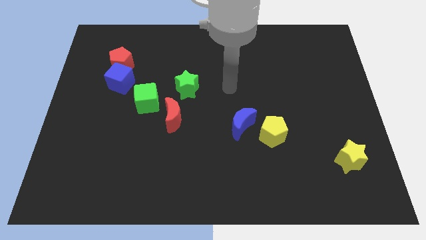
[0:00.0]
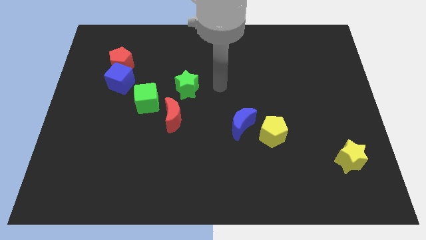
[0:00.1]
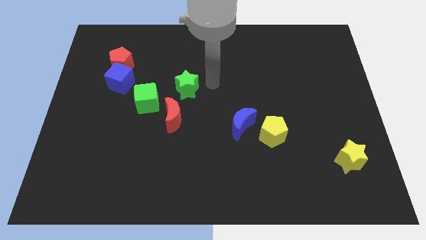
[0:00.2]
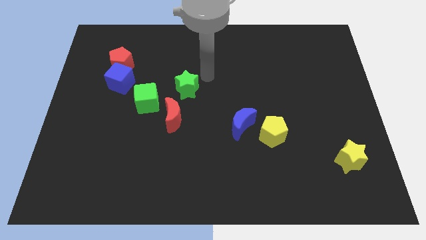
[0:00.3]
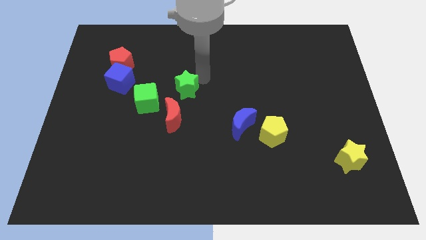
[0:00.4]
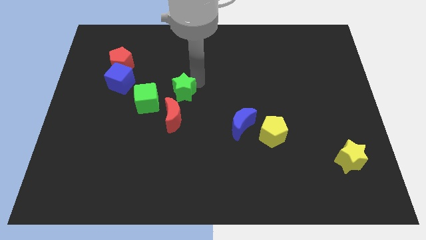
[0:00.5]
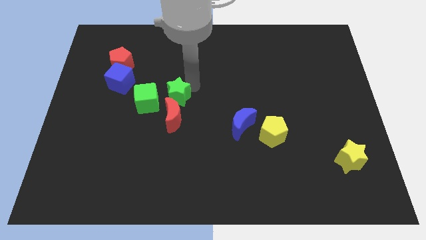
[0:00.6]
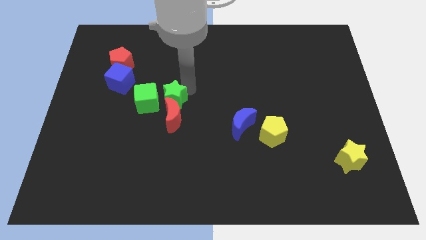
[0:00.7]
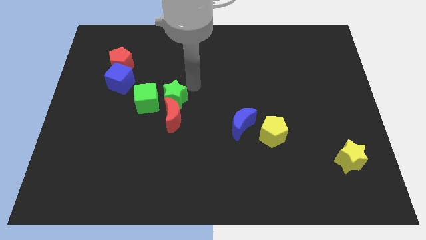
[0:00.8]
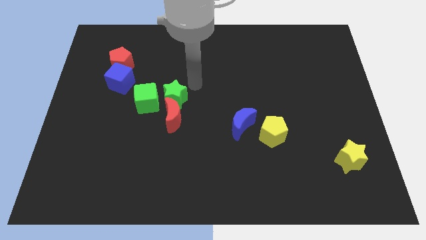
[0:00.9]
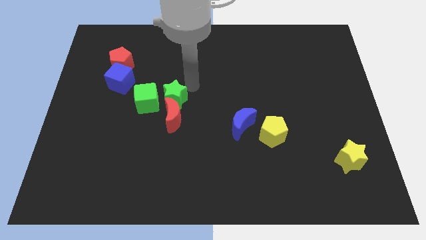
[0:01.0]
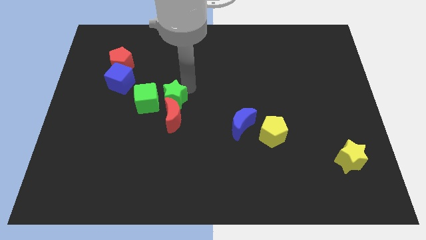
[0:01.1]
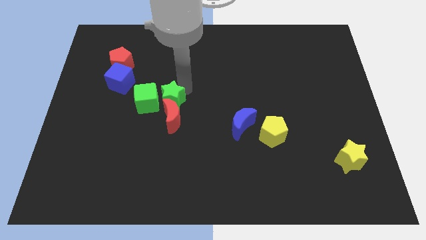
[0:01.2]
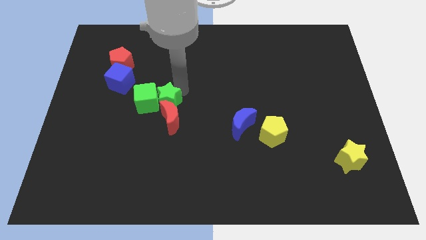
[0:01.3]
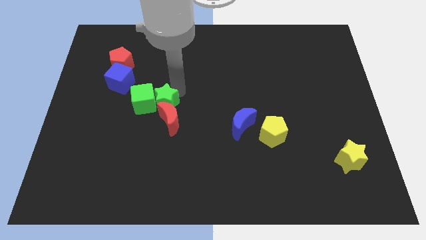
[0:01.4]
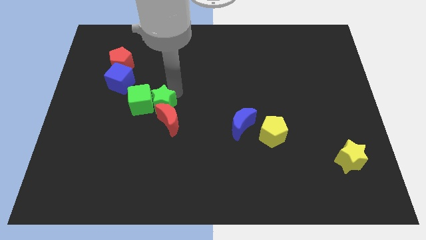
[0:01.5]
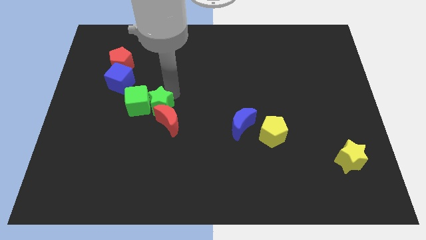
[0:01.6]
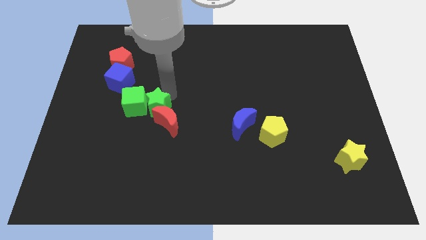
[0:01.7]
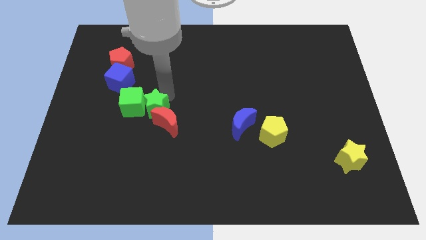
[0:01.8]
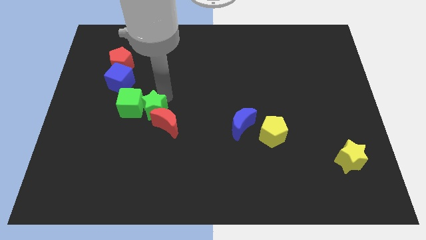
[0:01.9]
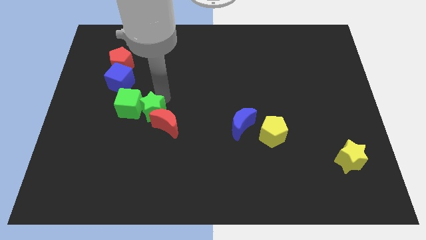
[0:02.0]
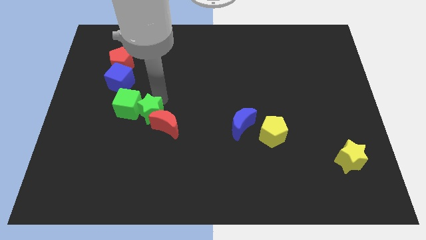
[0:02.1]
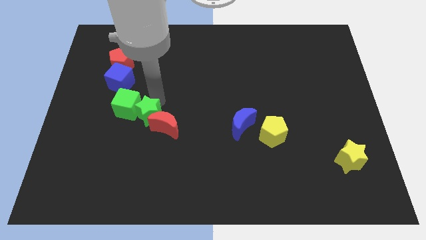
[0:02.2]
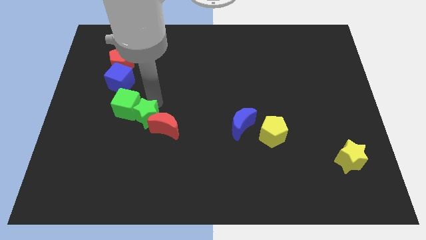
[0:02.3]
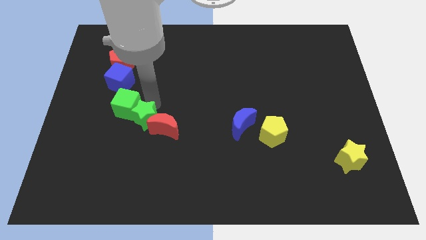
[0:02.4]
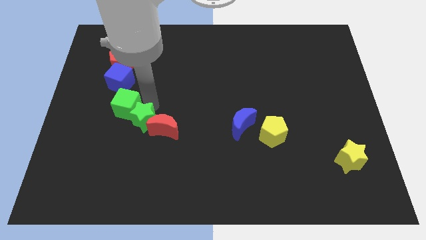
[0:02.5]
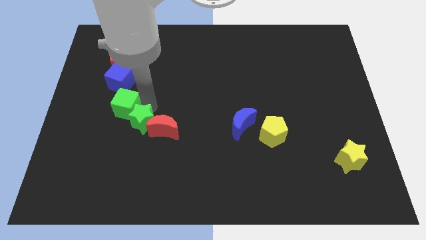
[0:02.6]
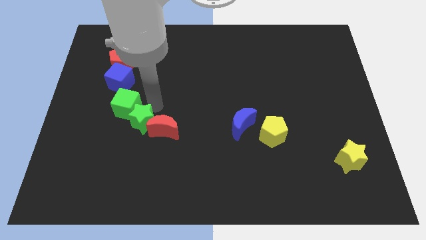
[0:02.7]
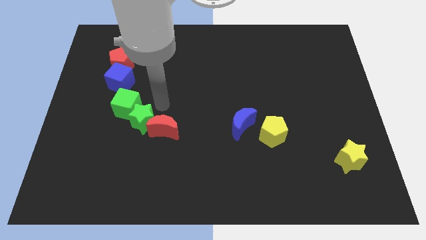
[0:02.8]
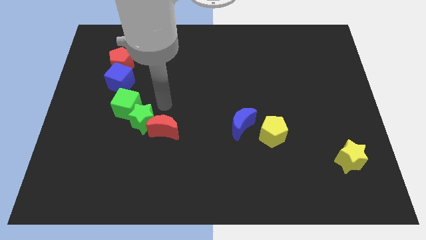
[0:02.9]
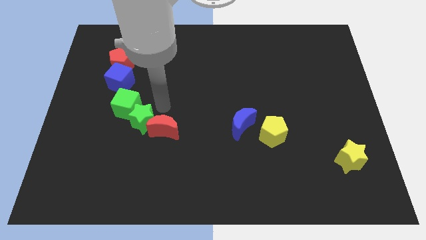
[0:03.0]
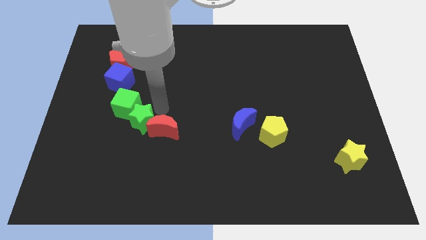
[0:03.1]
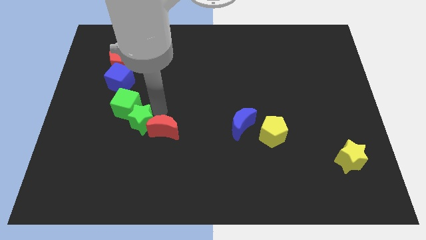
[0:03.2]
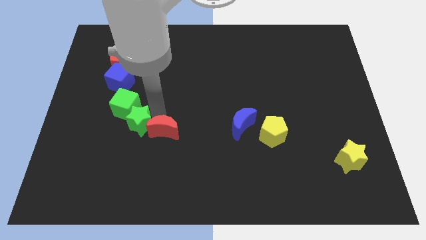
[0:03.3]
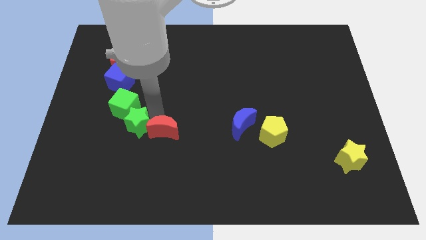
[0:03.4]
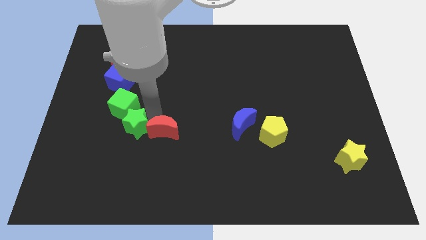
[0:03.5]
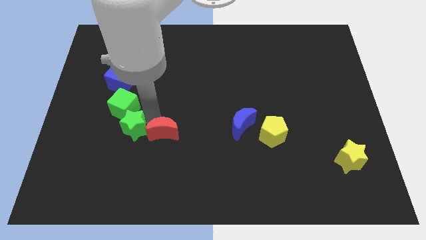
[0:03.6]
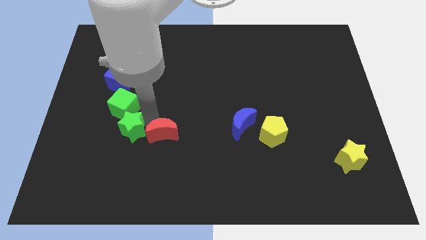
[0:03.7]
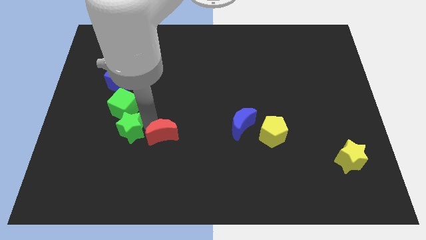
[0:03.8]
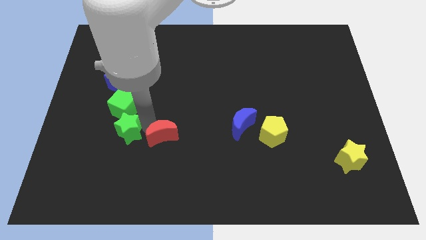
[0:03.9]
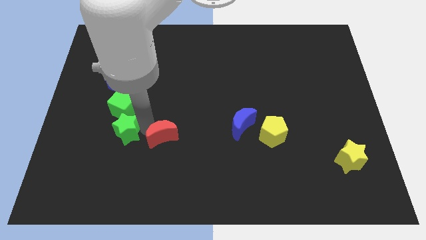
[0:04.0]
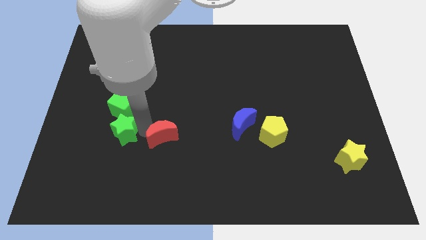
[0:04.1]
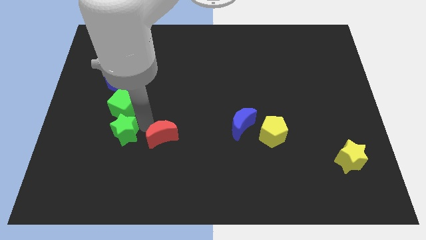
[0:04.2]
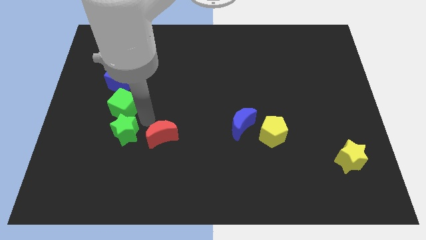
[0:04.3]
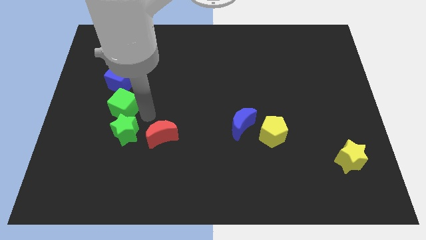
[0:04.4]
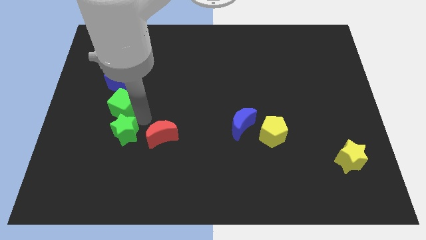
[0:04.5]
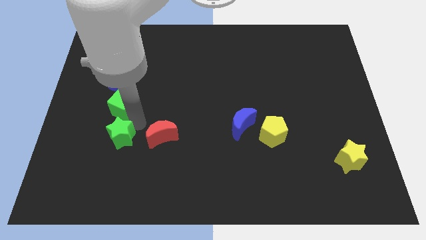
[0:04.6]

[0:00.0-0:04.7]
slide the green star down and left diagonally

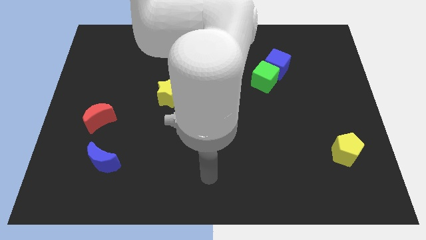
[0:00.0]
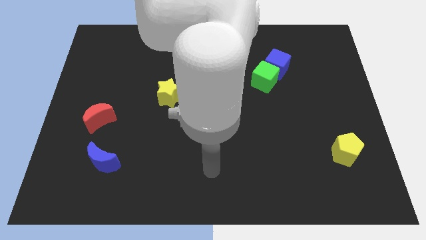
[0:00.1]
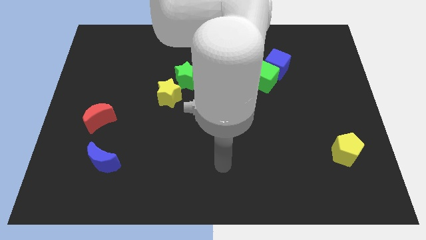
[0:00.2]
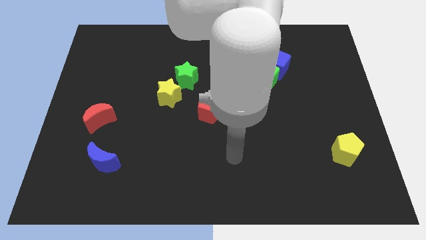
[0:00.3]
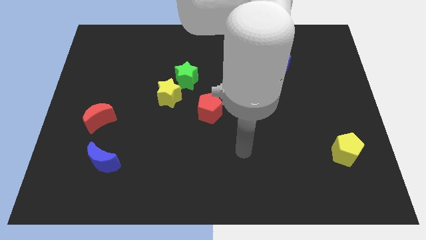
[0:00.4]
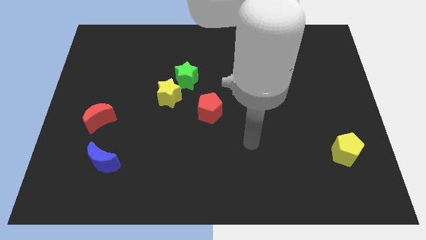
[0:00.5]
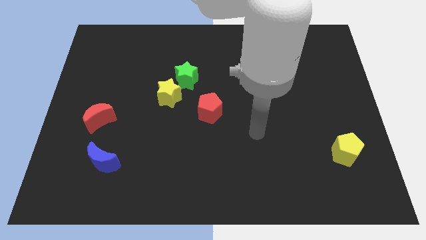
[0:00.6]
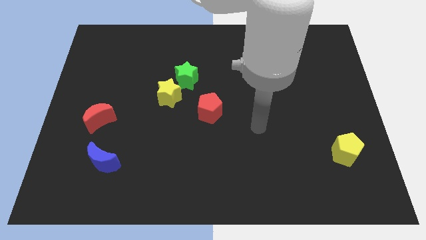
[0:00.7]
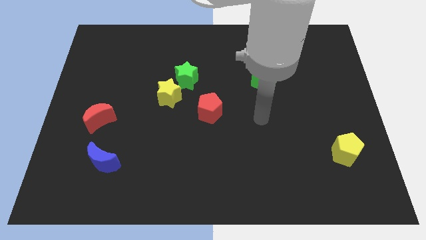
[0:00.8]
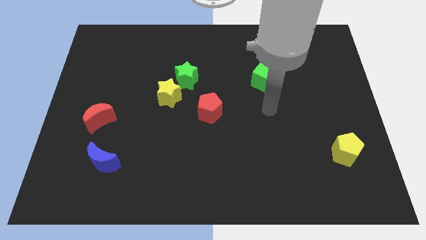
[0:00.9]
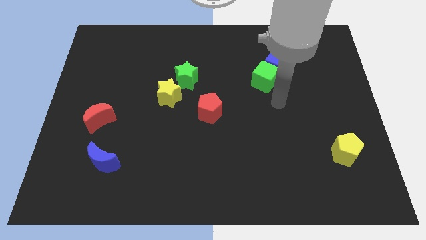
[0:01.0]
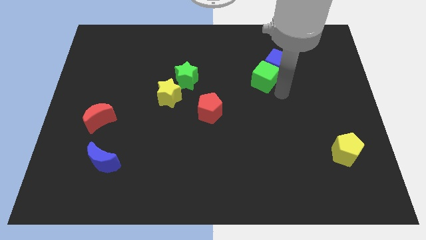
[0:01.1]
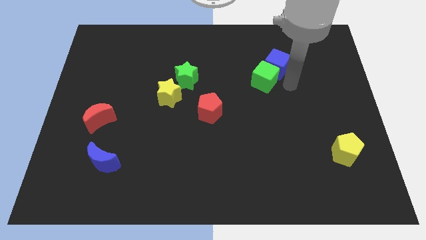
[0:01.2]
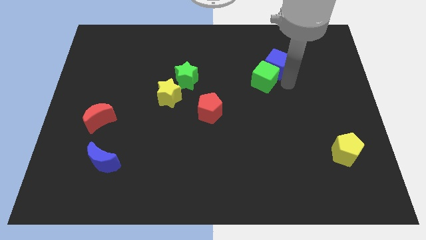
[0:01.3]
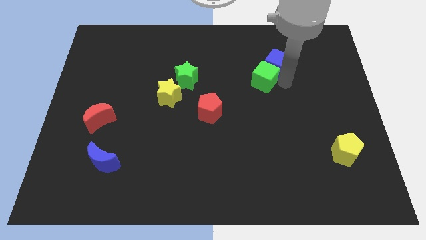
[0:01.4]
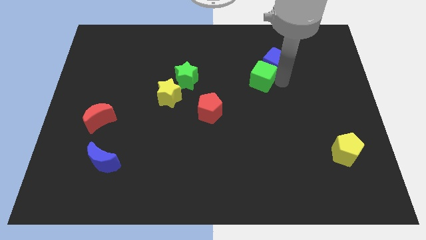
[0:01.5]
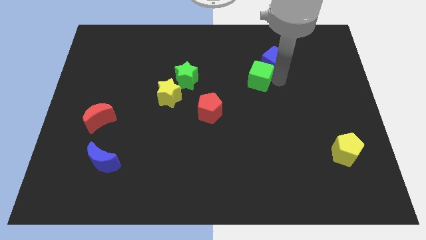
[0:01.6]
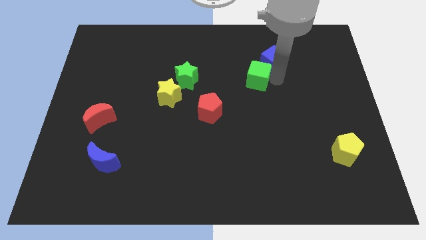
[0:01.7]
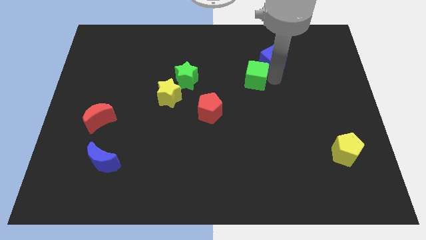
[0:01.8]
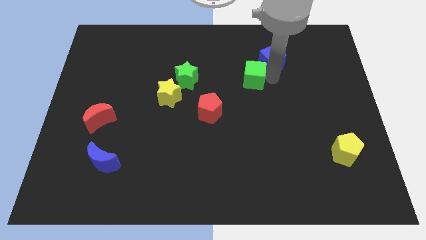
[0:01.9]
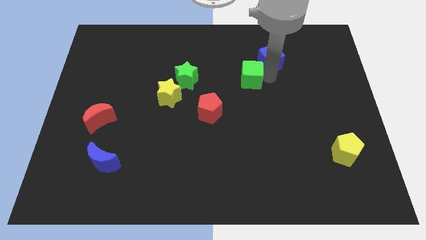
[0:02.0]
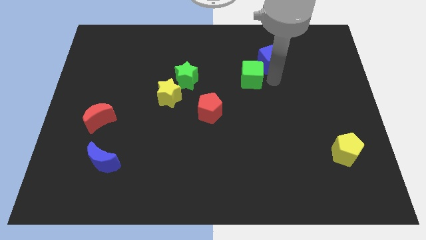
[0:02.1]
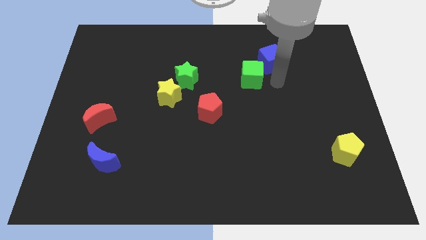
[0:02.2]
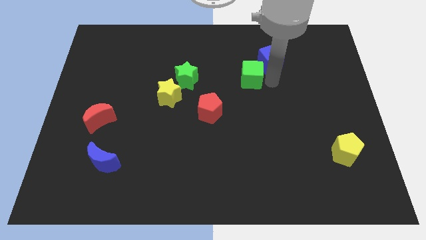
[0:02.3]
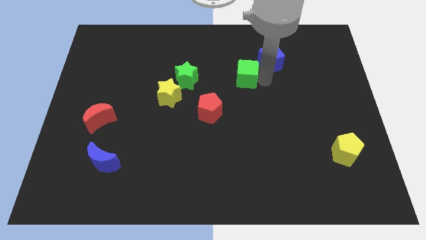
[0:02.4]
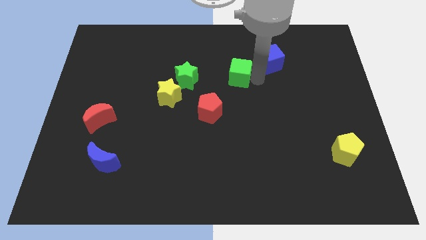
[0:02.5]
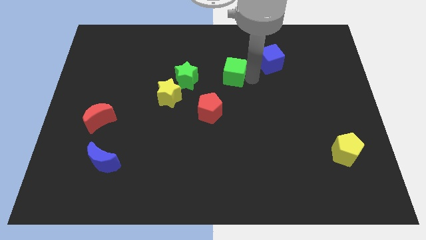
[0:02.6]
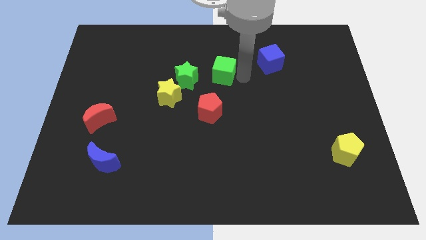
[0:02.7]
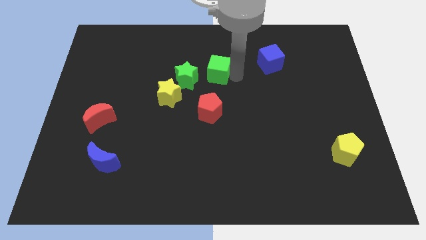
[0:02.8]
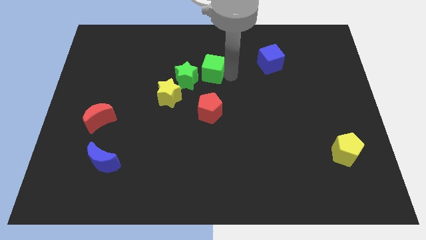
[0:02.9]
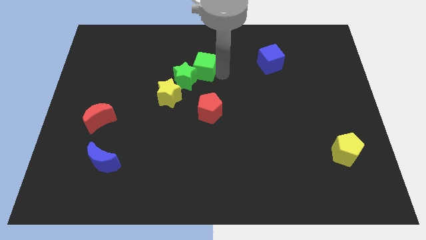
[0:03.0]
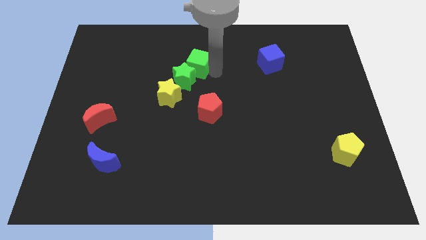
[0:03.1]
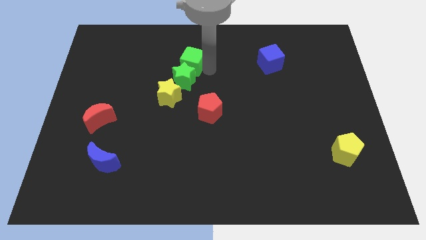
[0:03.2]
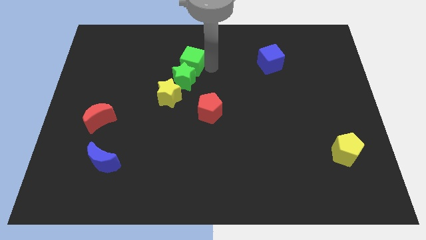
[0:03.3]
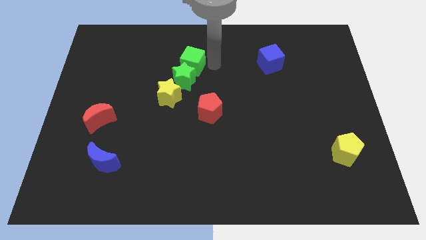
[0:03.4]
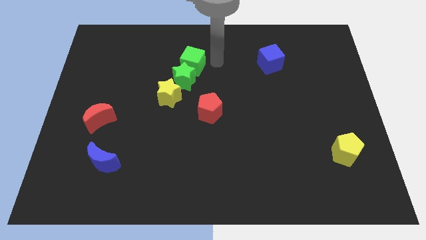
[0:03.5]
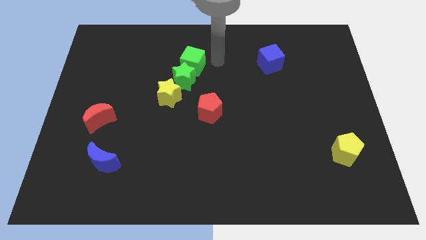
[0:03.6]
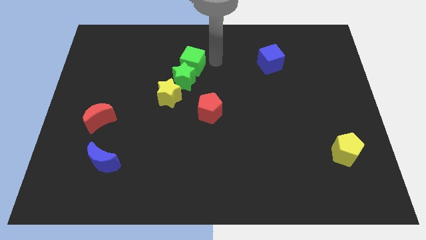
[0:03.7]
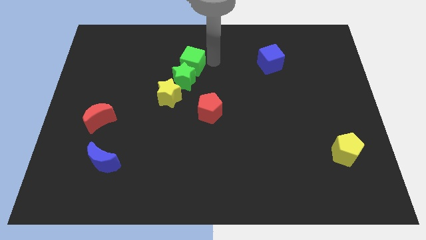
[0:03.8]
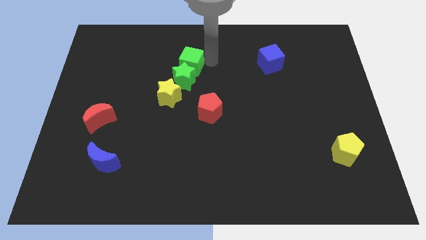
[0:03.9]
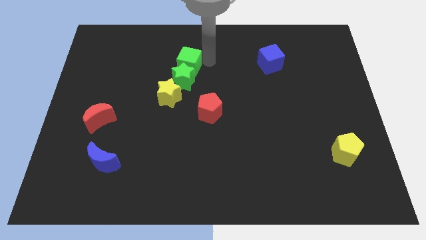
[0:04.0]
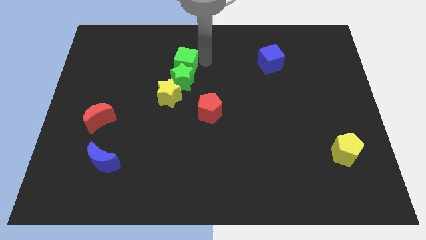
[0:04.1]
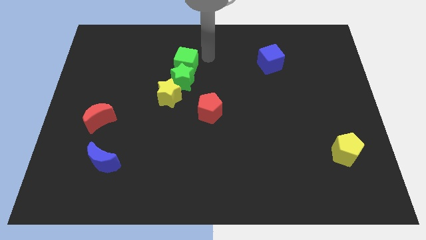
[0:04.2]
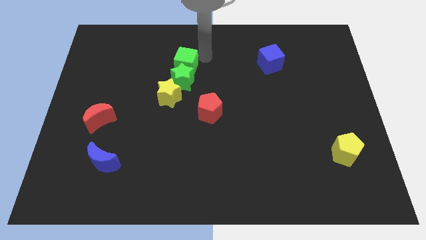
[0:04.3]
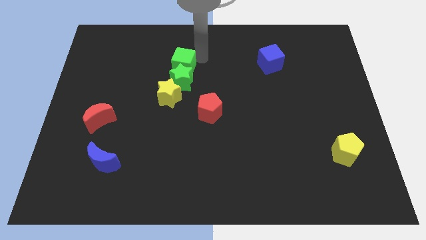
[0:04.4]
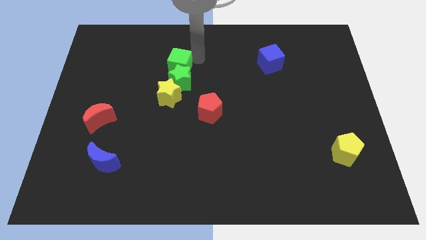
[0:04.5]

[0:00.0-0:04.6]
move the green cube to the left
